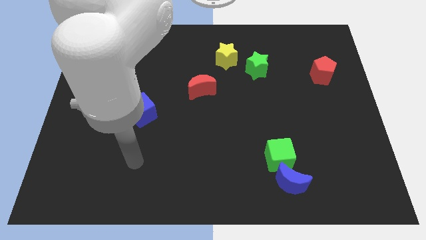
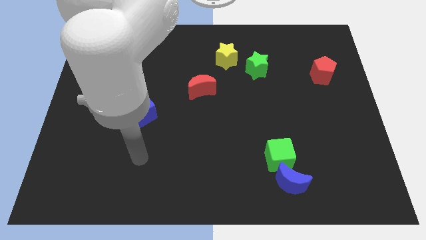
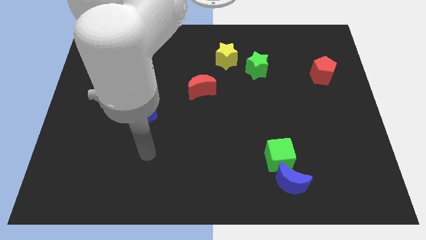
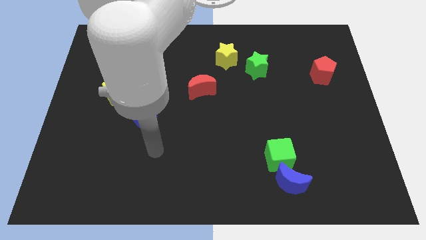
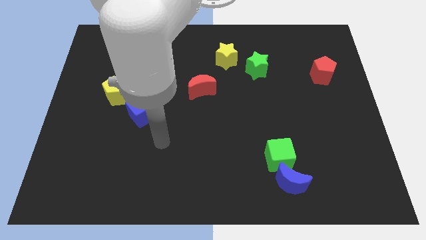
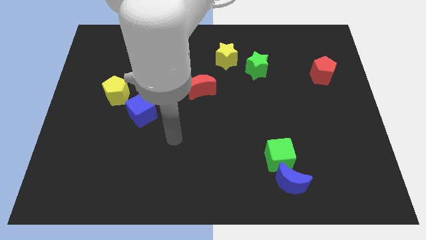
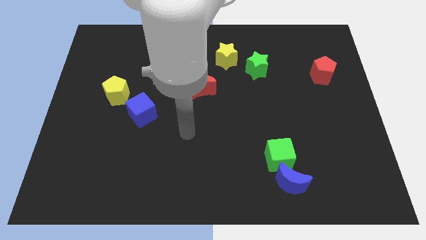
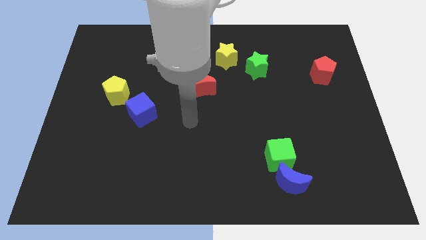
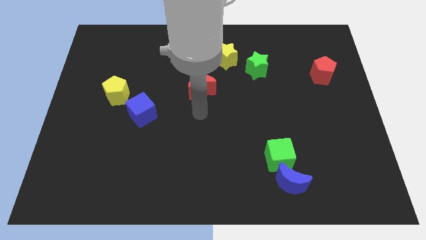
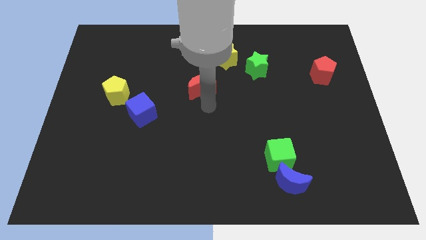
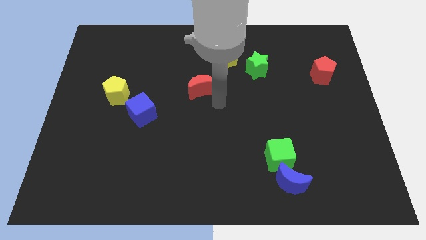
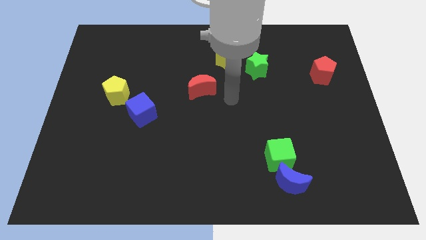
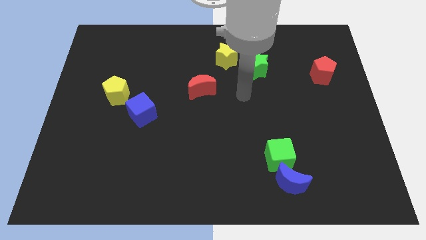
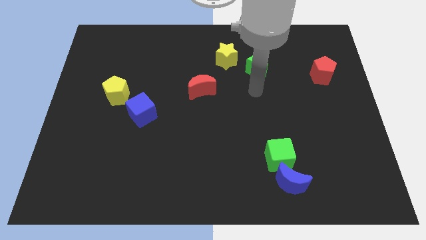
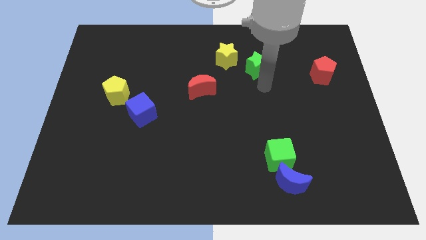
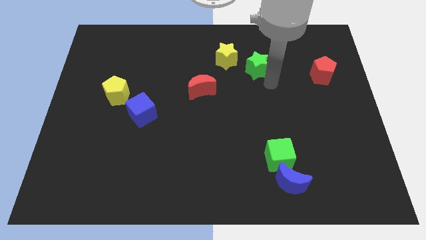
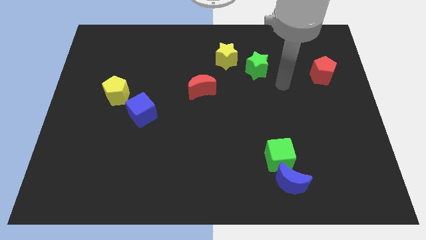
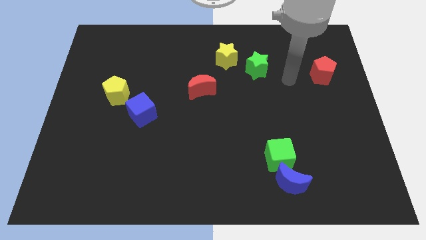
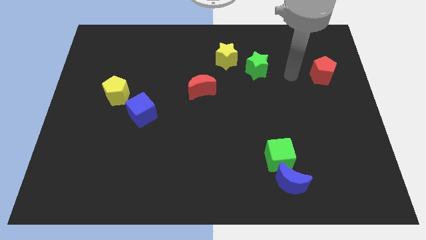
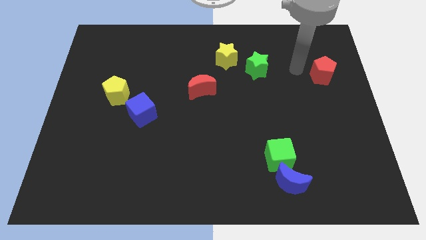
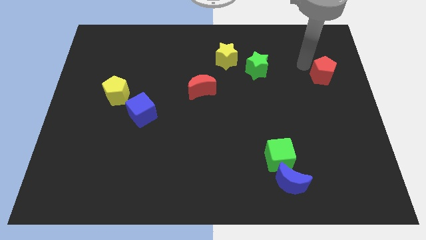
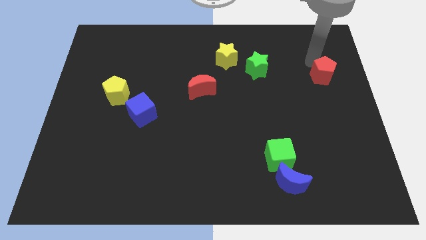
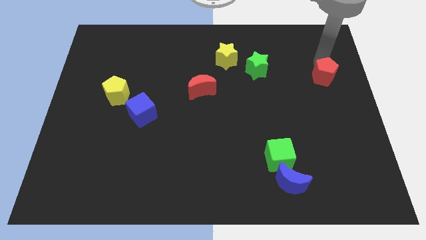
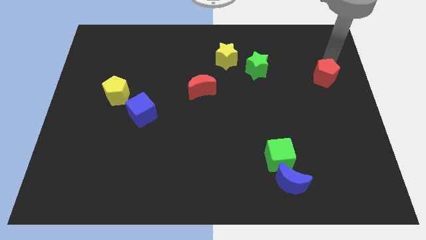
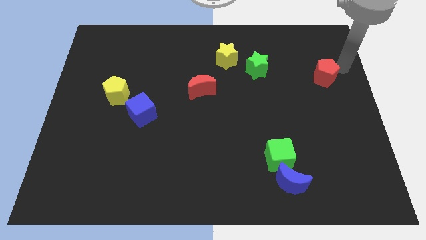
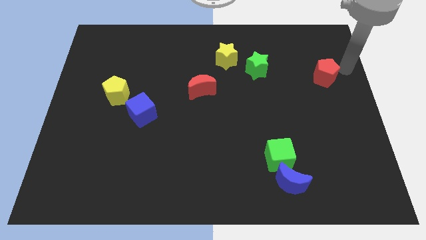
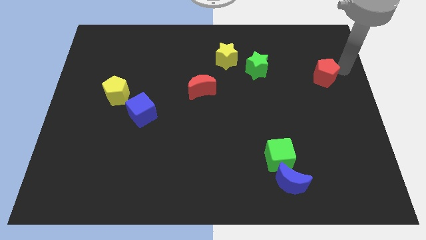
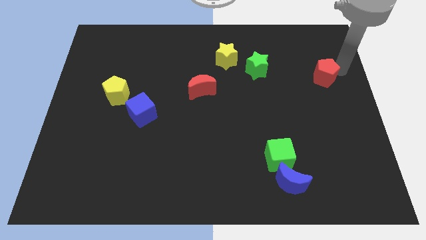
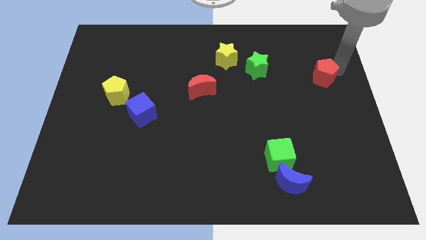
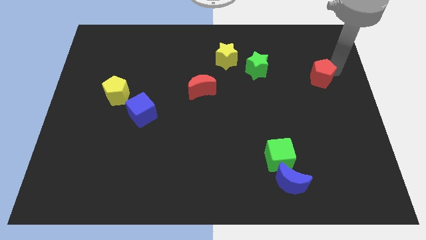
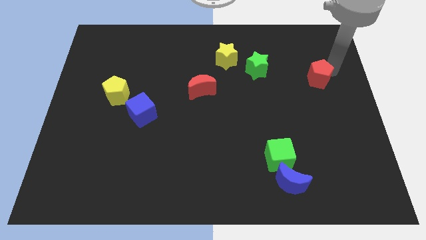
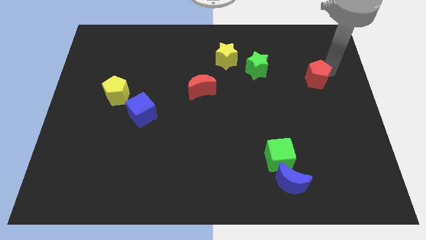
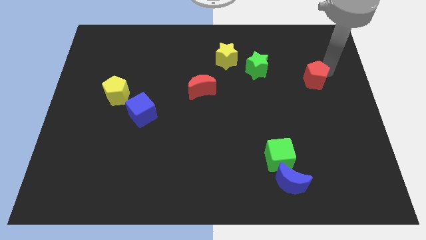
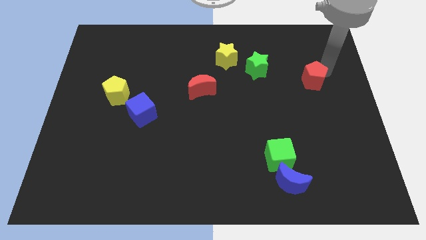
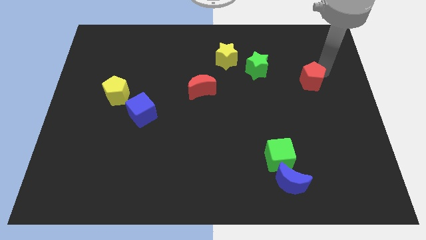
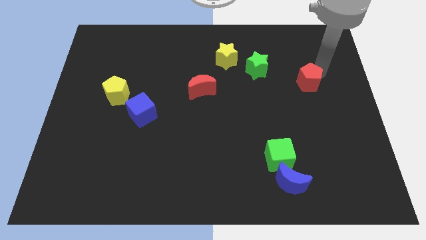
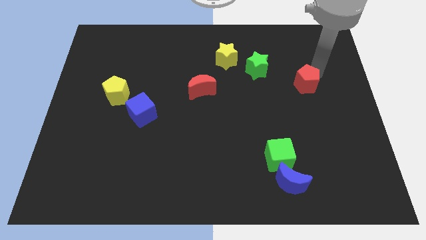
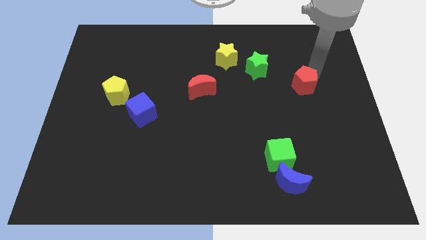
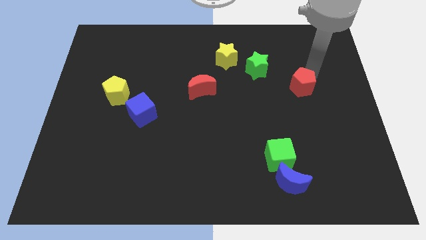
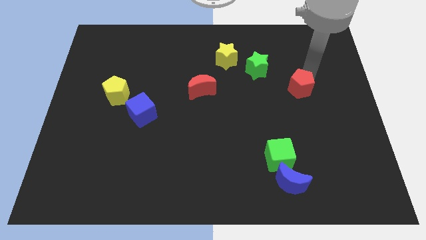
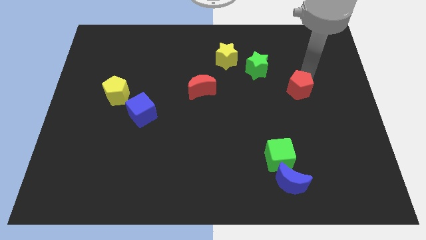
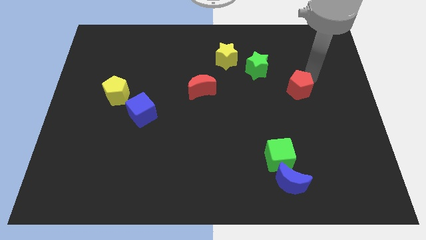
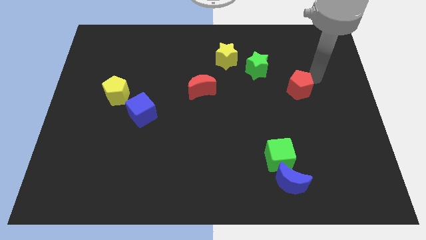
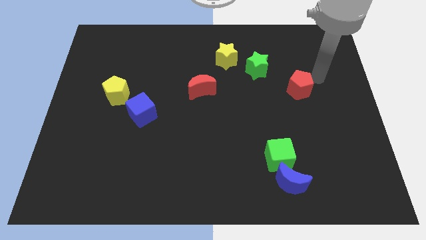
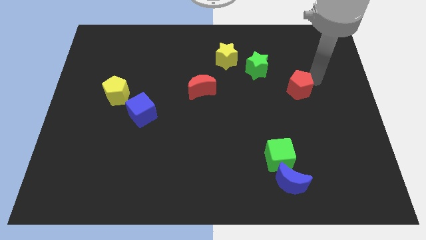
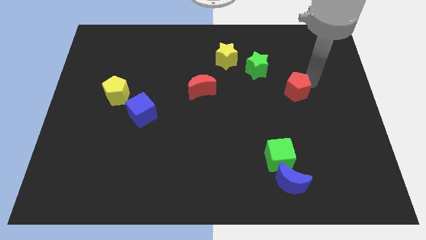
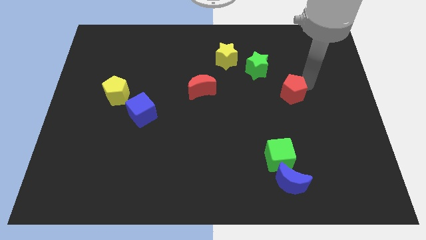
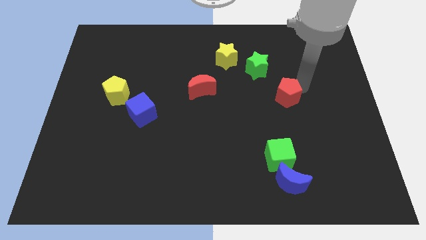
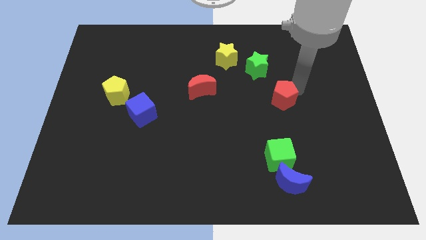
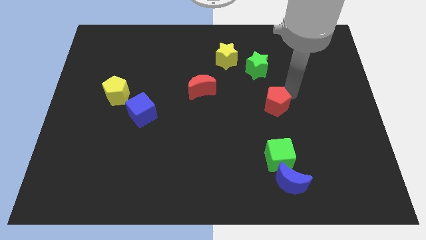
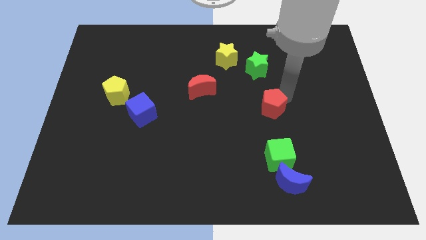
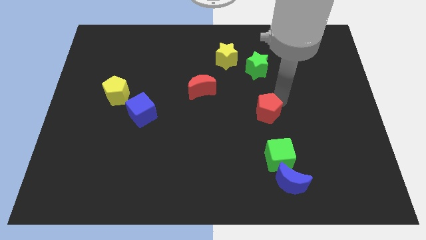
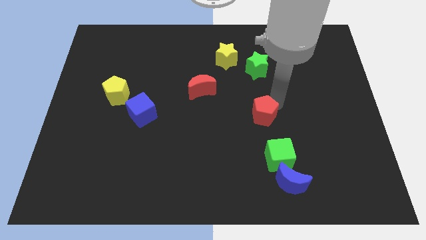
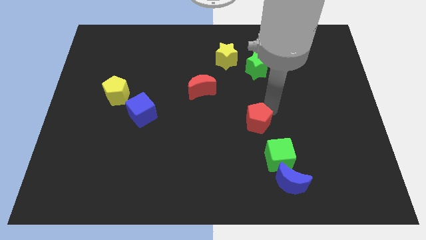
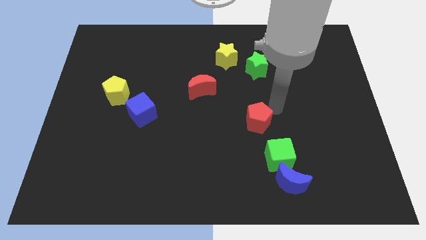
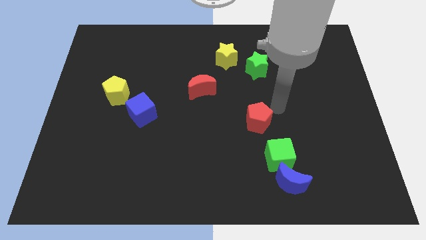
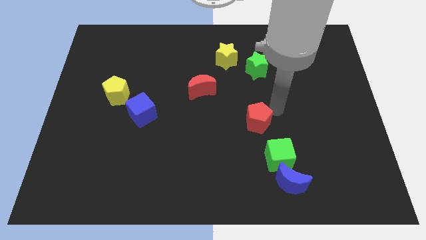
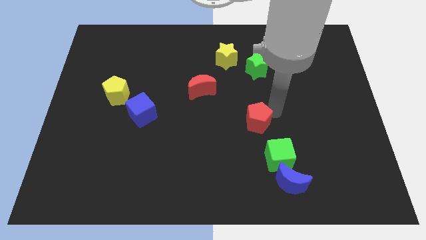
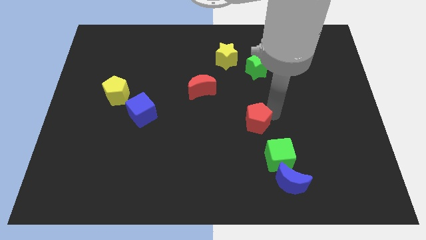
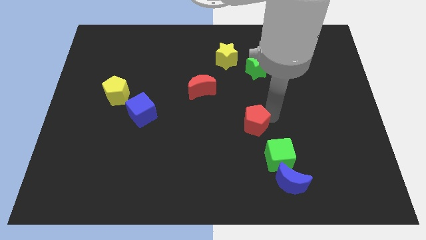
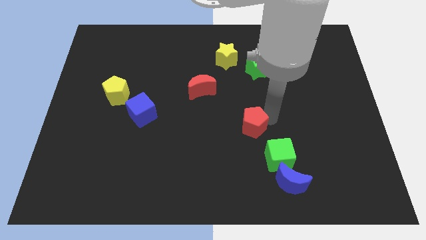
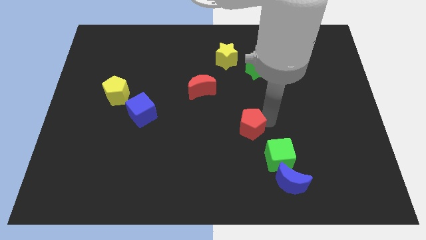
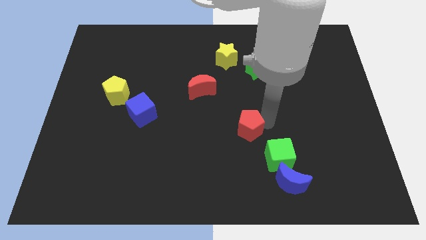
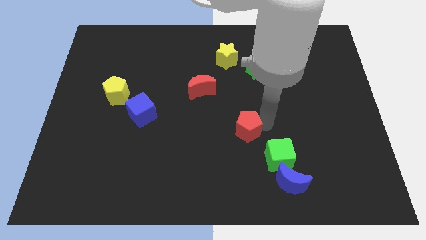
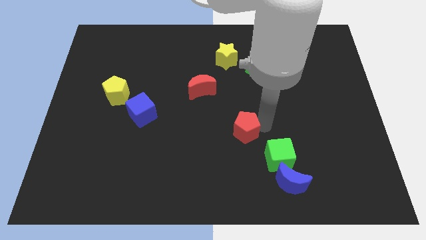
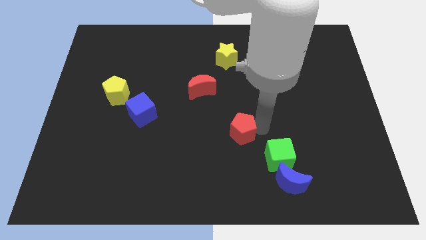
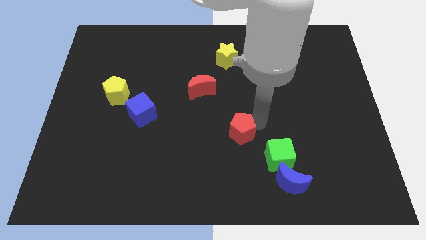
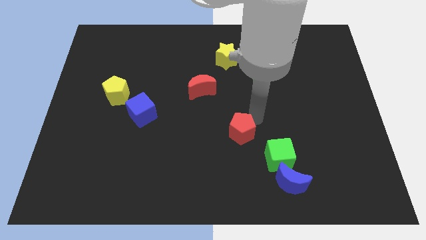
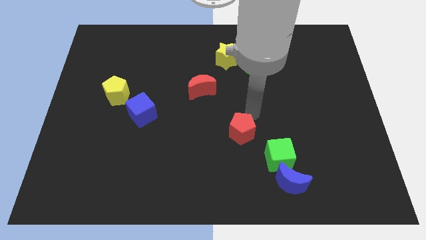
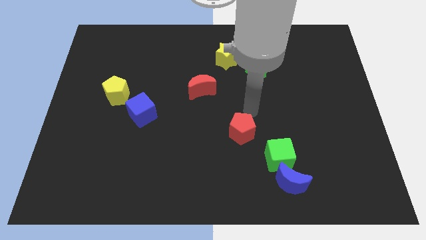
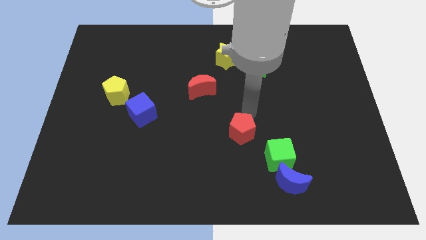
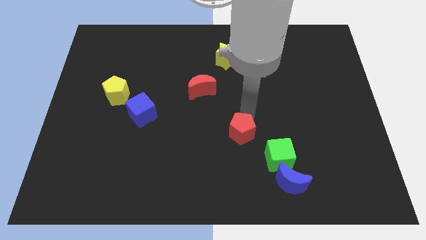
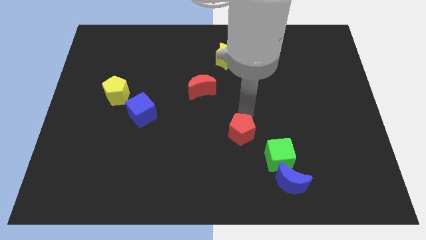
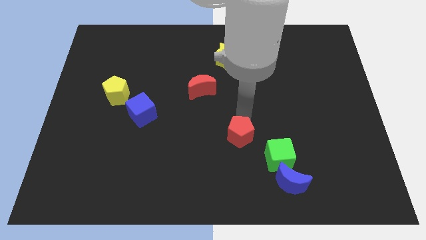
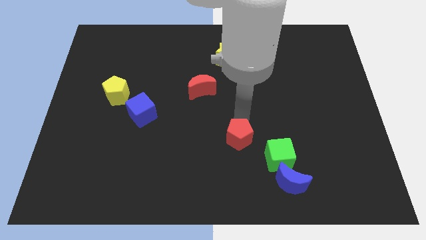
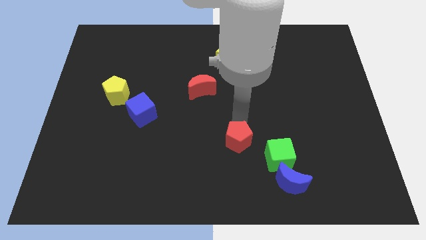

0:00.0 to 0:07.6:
put the red pentagon to the left of the green cube
